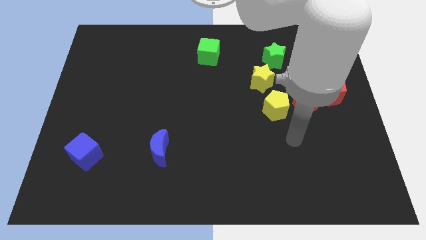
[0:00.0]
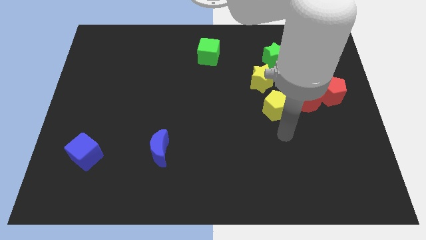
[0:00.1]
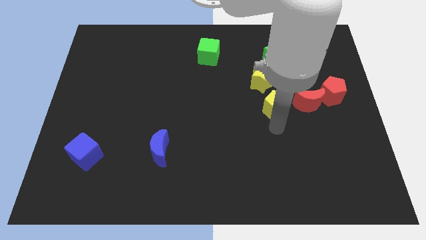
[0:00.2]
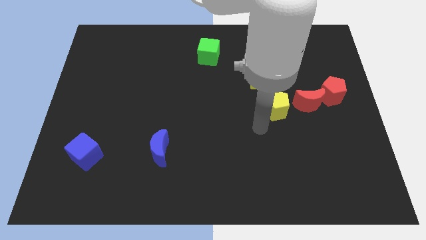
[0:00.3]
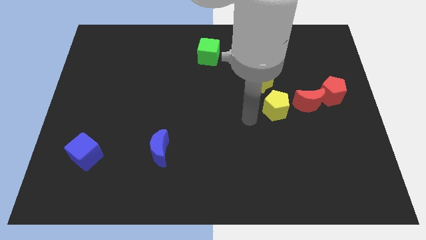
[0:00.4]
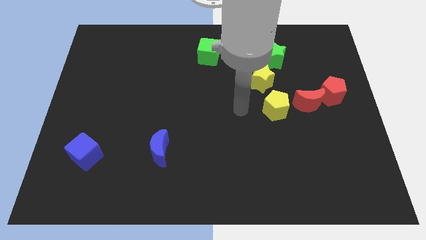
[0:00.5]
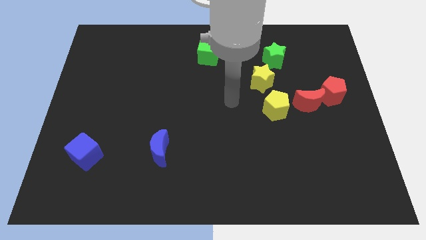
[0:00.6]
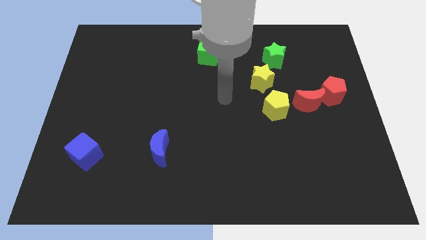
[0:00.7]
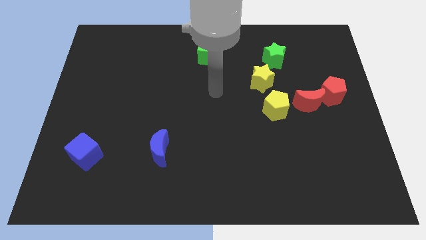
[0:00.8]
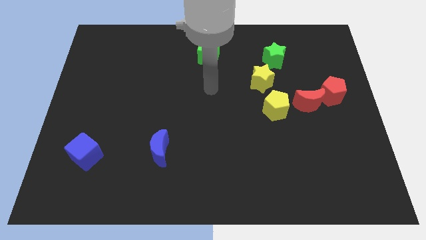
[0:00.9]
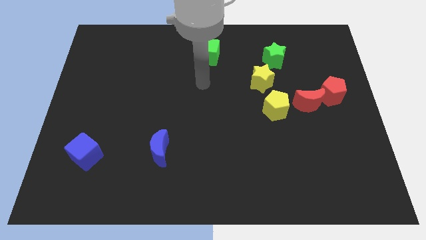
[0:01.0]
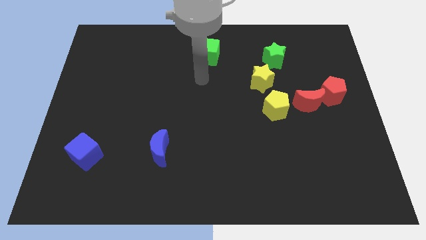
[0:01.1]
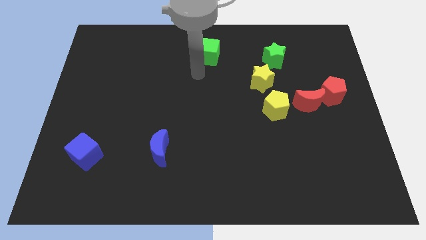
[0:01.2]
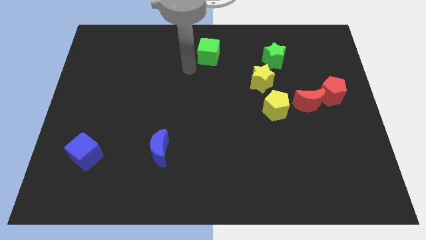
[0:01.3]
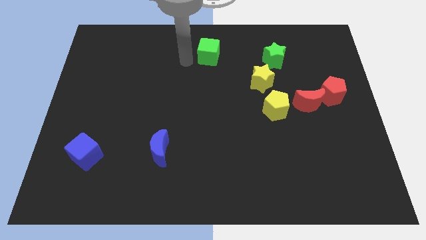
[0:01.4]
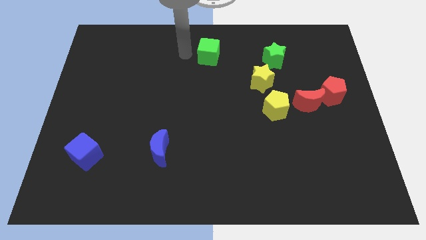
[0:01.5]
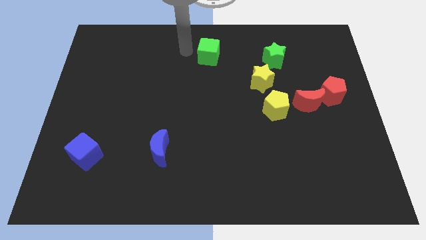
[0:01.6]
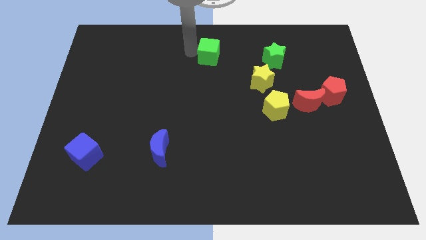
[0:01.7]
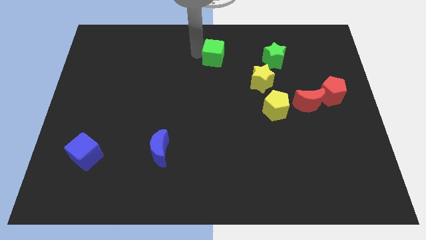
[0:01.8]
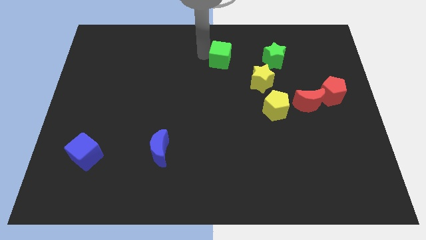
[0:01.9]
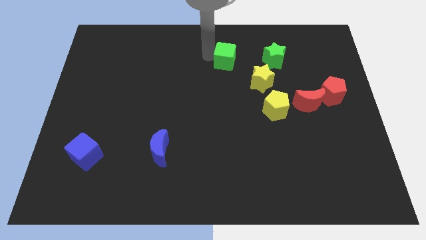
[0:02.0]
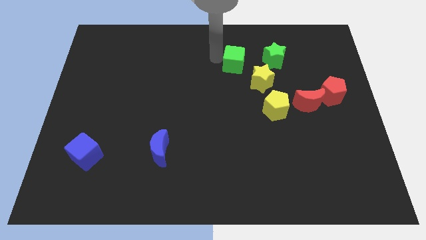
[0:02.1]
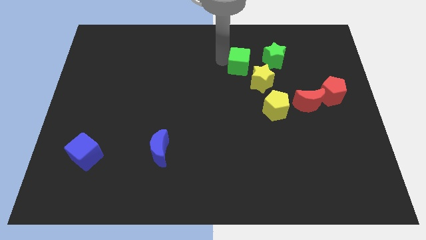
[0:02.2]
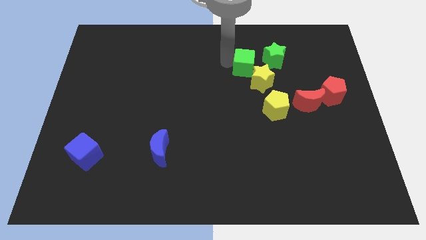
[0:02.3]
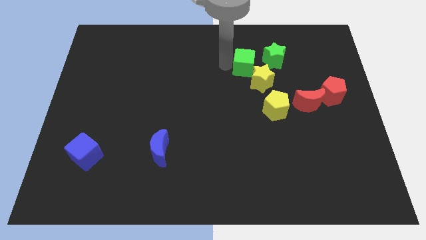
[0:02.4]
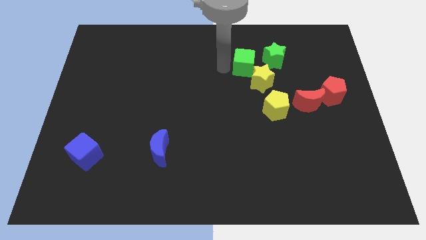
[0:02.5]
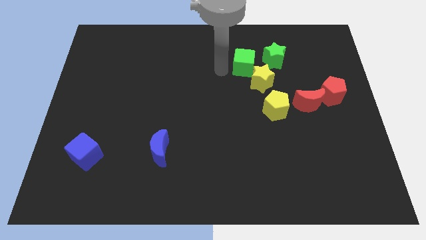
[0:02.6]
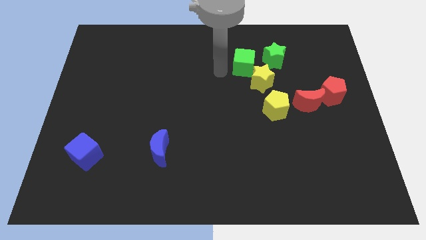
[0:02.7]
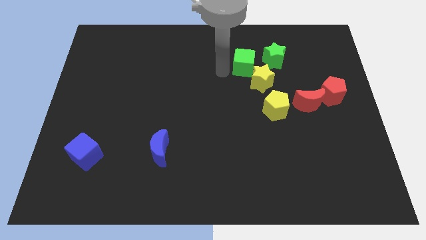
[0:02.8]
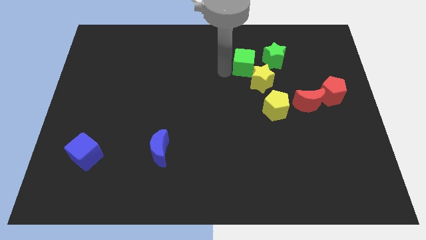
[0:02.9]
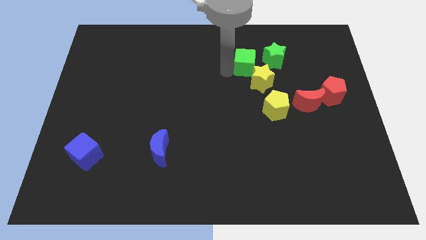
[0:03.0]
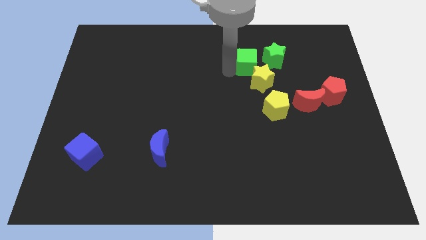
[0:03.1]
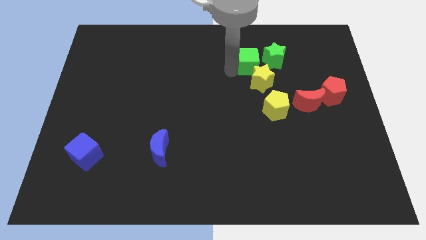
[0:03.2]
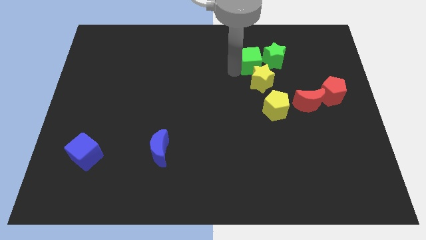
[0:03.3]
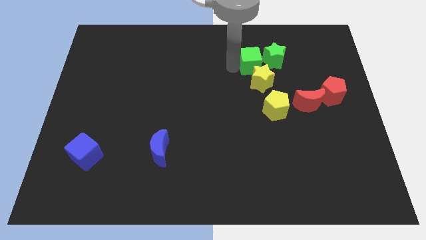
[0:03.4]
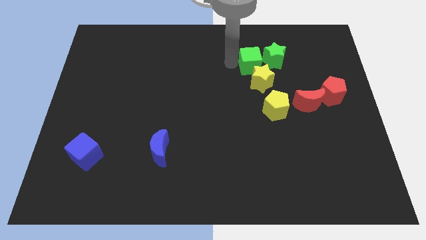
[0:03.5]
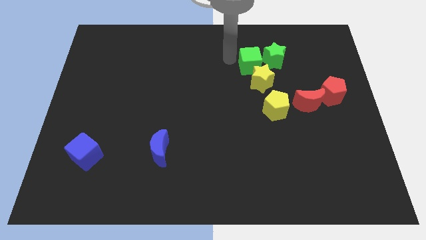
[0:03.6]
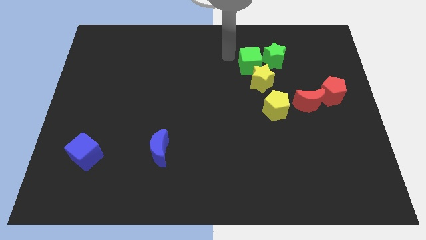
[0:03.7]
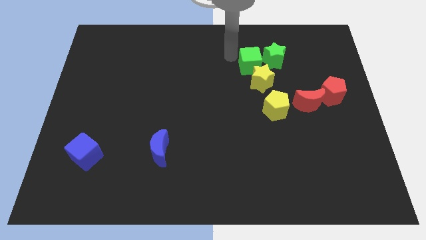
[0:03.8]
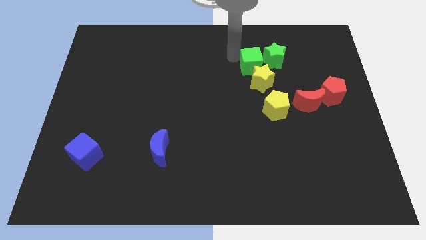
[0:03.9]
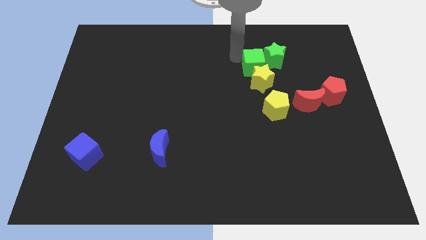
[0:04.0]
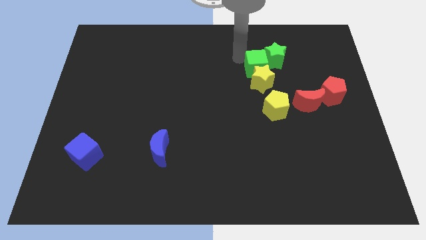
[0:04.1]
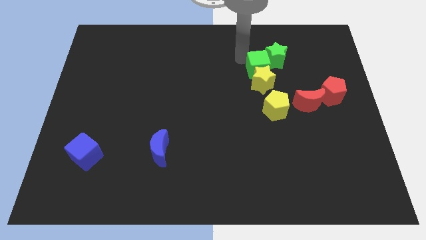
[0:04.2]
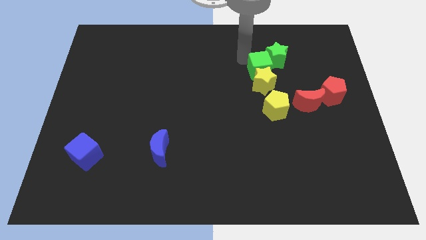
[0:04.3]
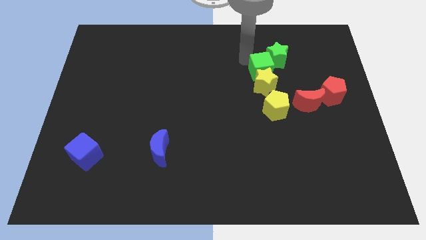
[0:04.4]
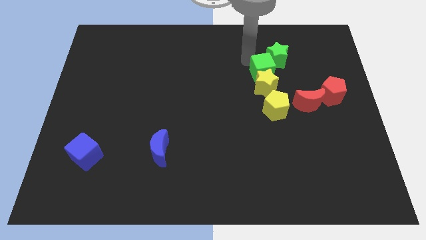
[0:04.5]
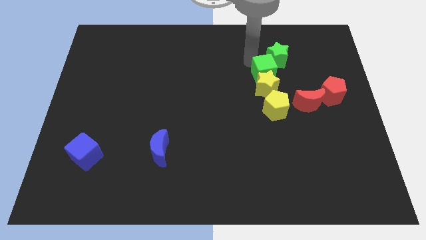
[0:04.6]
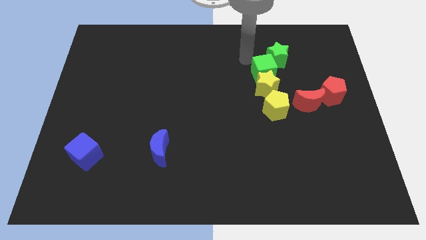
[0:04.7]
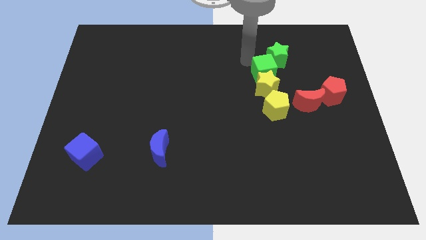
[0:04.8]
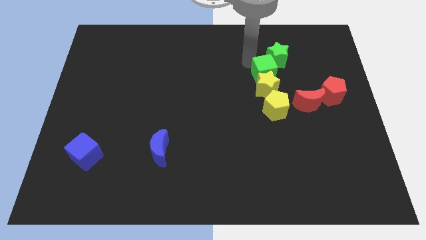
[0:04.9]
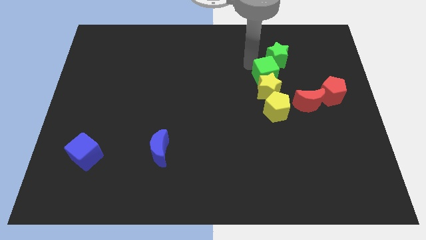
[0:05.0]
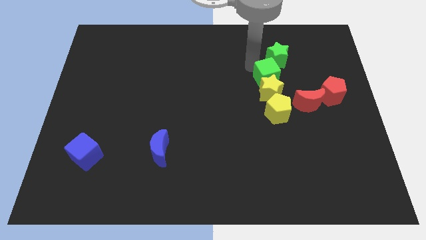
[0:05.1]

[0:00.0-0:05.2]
put the green cube to the top left side of the red moon

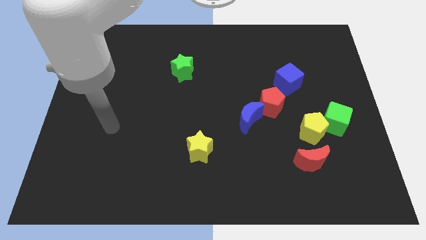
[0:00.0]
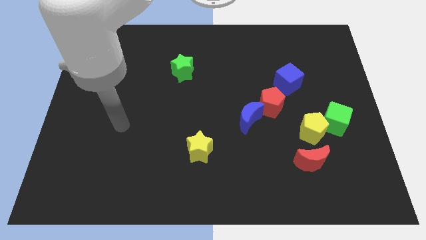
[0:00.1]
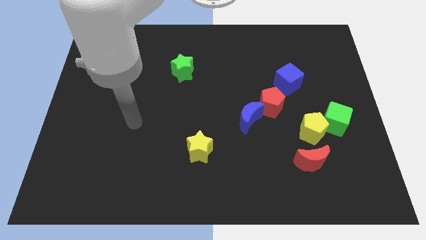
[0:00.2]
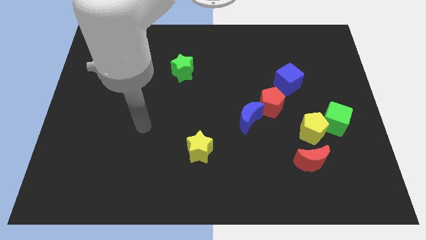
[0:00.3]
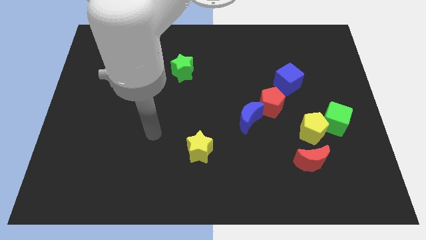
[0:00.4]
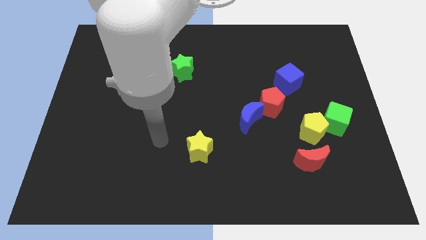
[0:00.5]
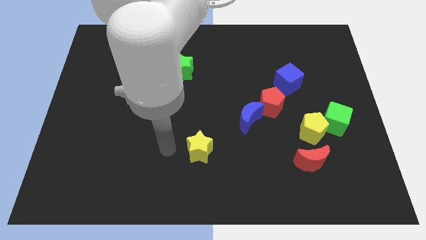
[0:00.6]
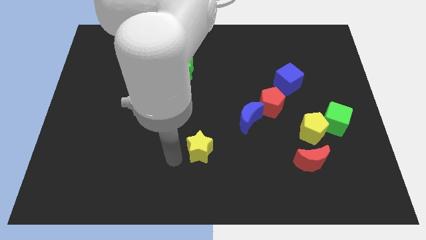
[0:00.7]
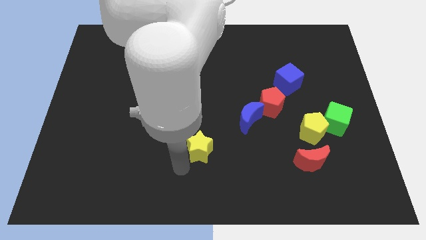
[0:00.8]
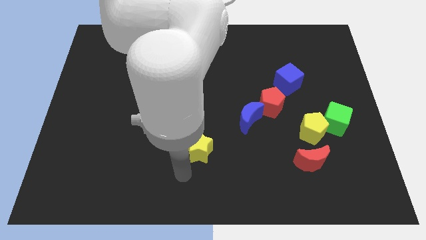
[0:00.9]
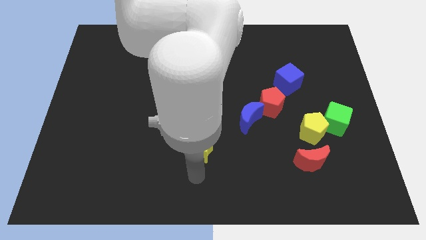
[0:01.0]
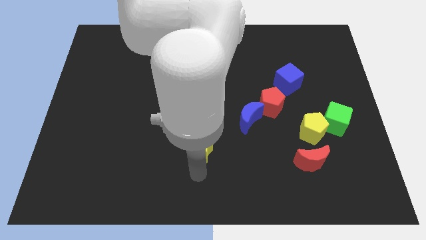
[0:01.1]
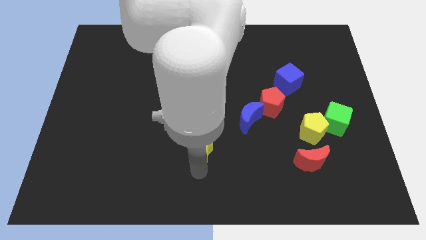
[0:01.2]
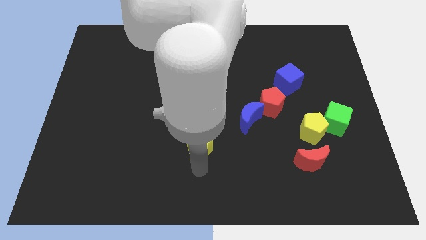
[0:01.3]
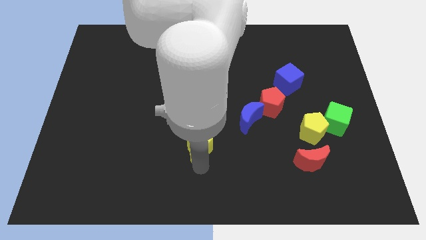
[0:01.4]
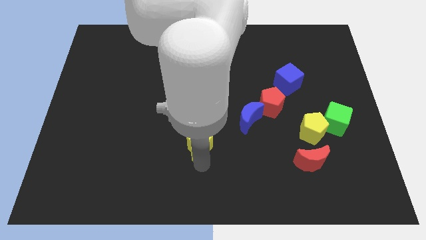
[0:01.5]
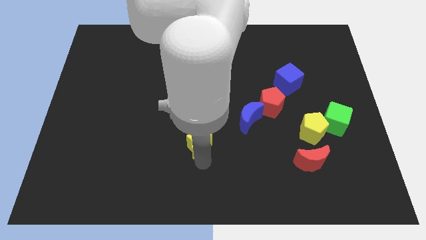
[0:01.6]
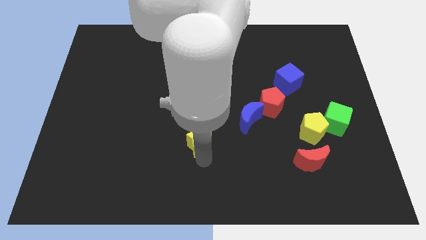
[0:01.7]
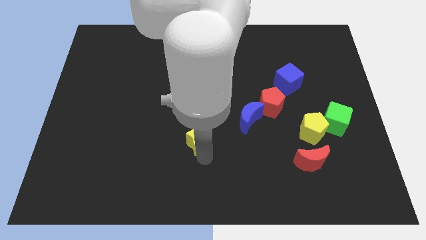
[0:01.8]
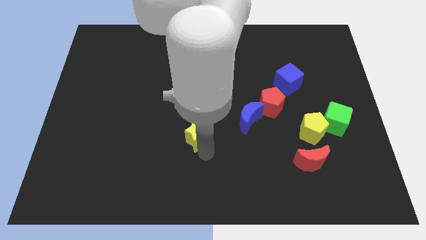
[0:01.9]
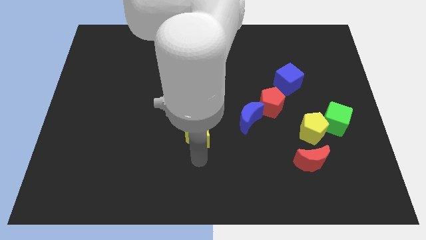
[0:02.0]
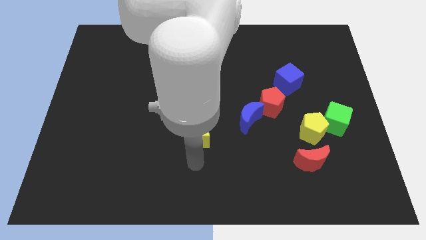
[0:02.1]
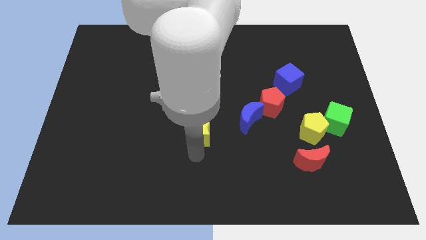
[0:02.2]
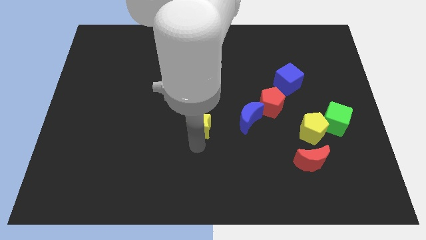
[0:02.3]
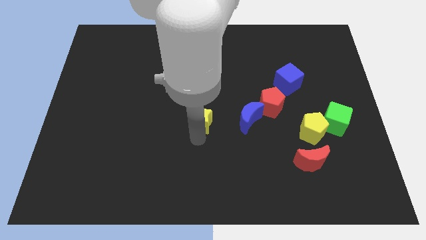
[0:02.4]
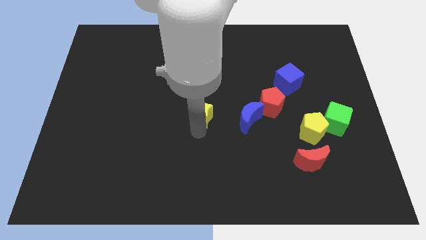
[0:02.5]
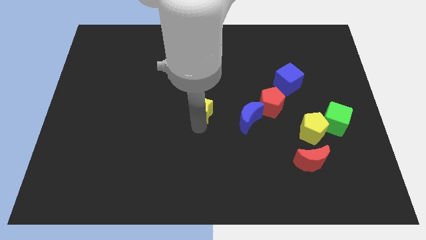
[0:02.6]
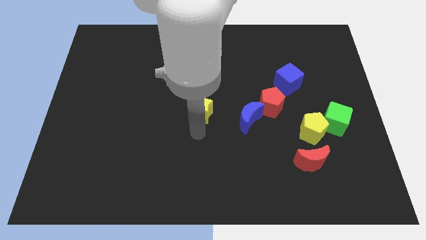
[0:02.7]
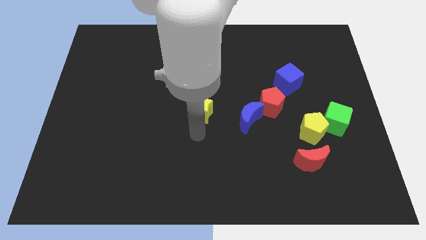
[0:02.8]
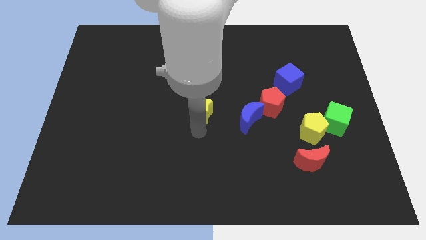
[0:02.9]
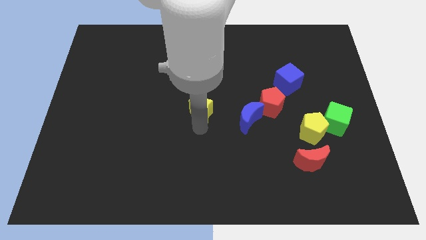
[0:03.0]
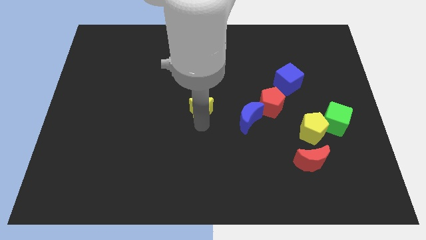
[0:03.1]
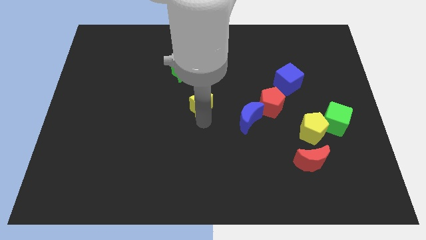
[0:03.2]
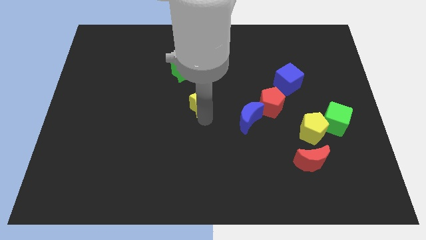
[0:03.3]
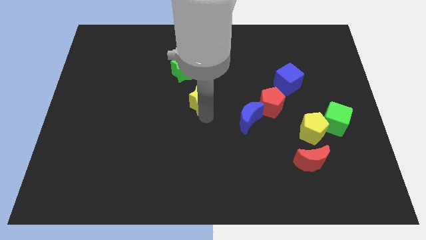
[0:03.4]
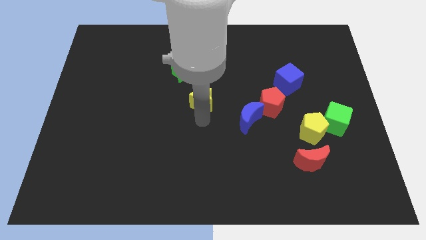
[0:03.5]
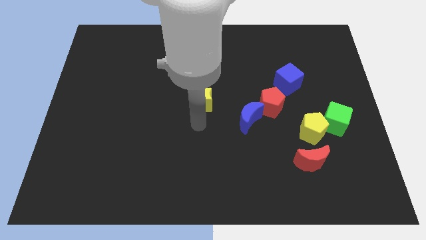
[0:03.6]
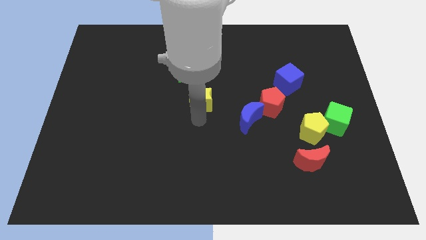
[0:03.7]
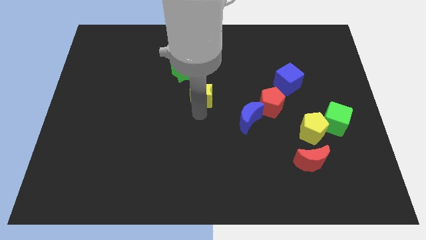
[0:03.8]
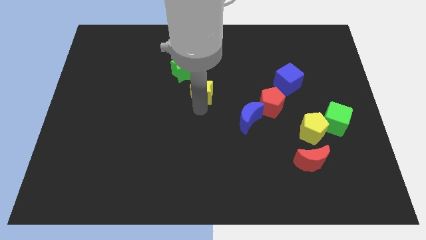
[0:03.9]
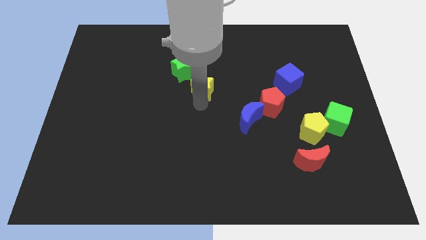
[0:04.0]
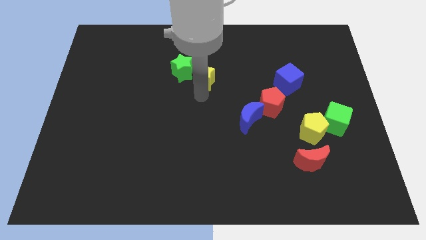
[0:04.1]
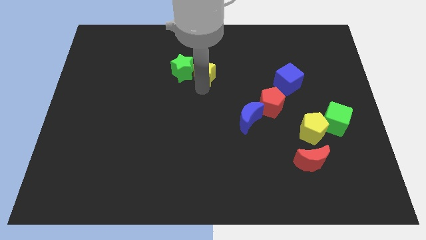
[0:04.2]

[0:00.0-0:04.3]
push the yellow star to the top right of the green star
